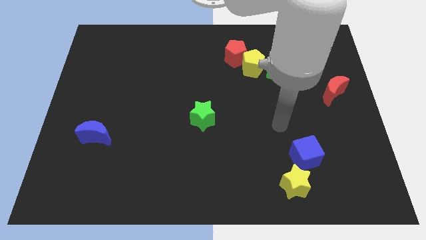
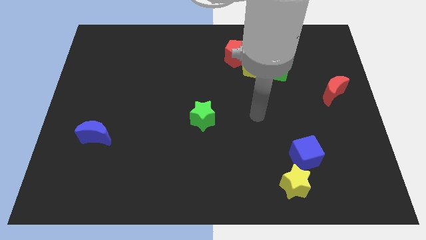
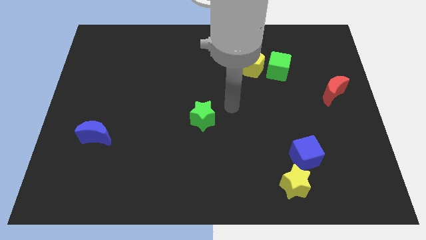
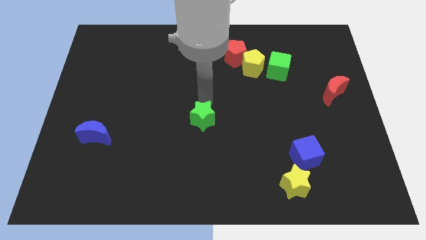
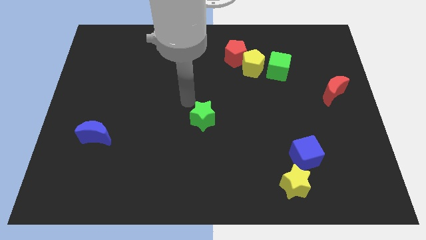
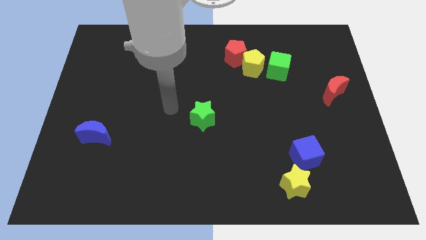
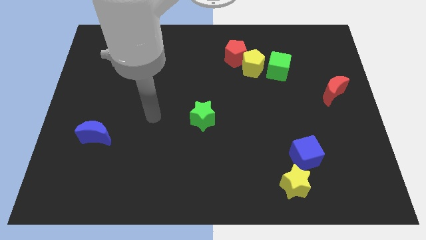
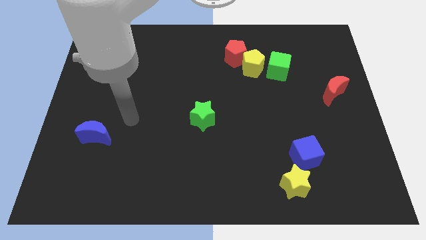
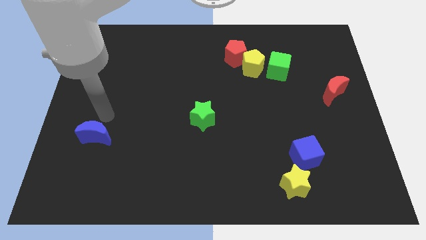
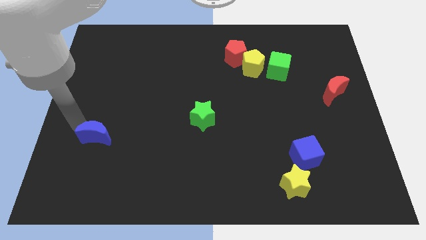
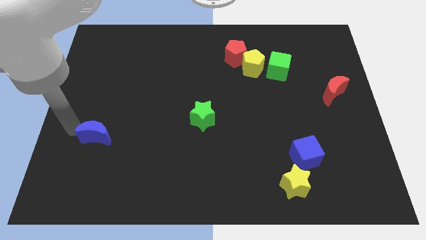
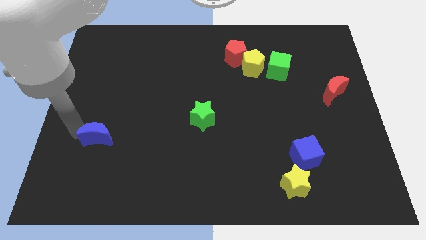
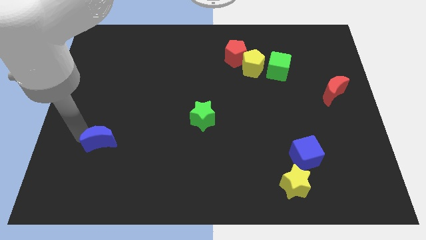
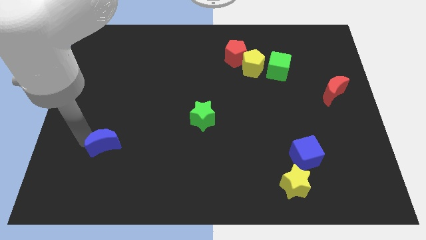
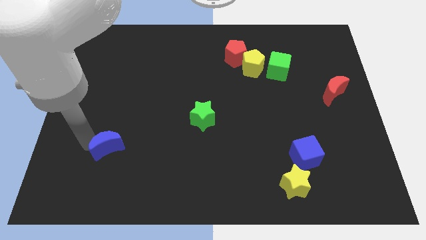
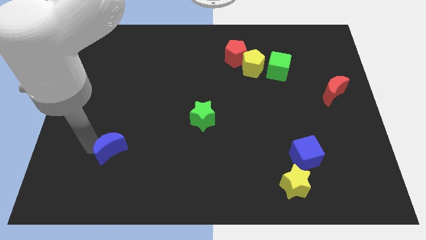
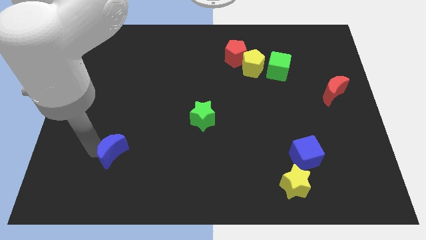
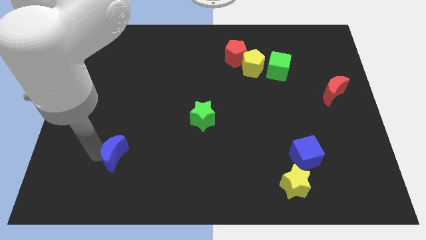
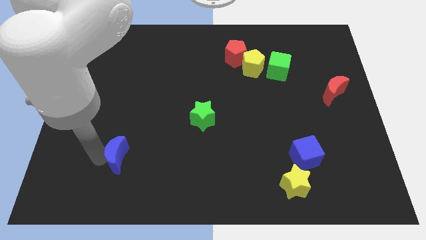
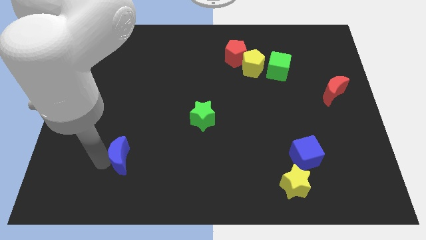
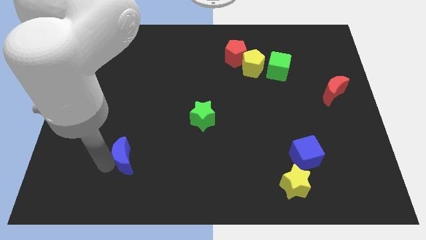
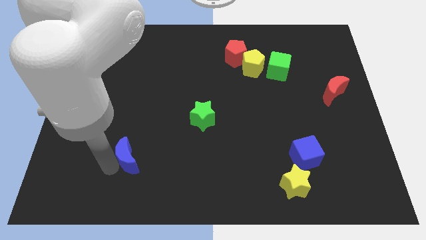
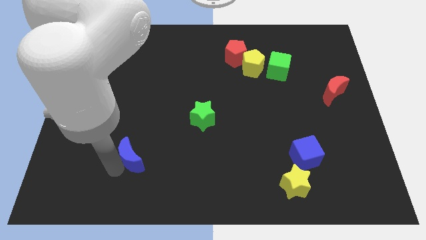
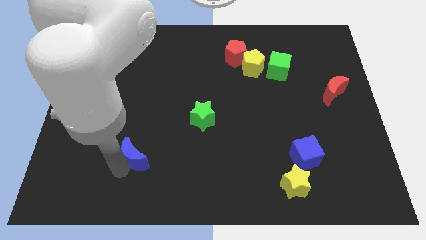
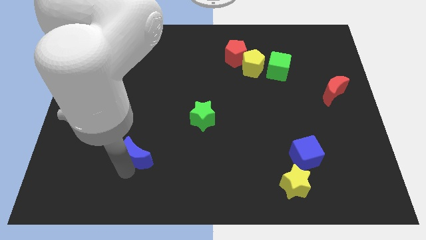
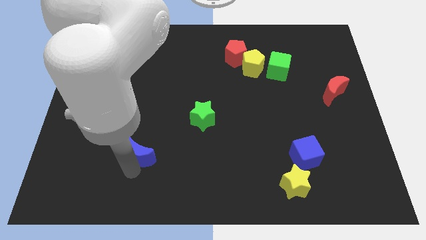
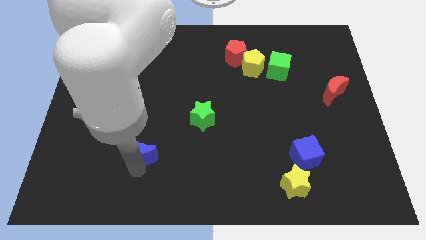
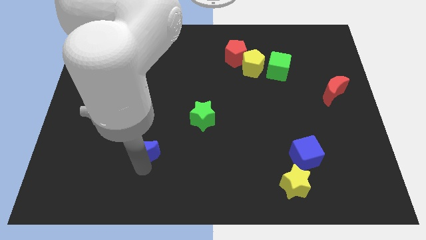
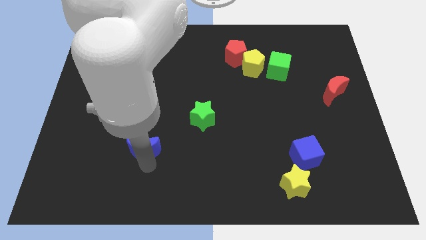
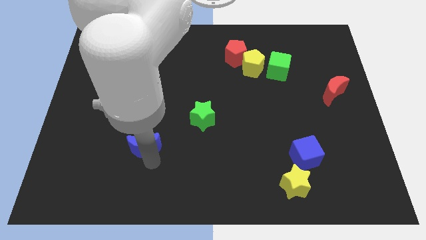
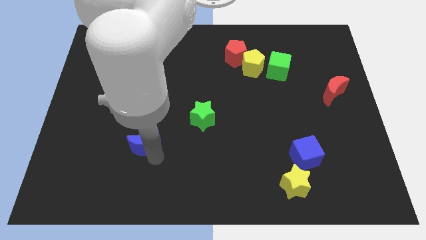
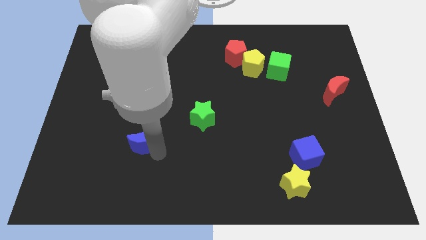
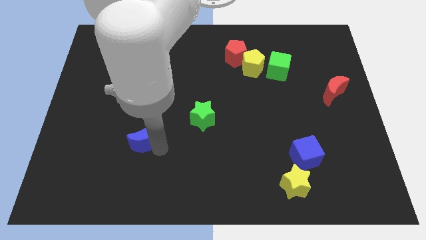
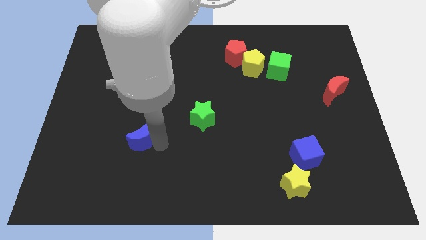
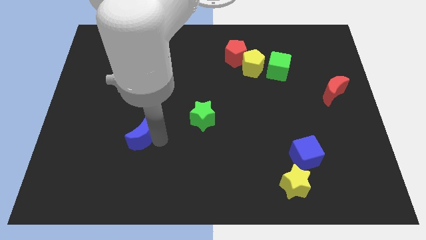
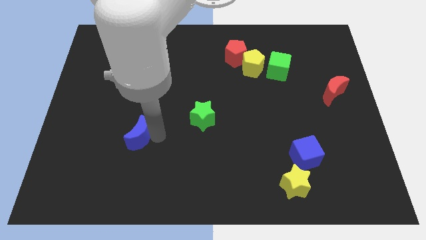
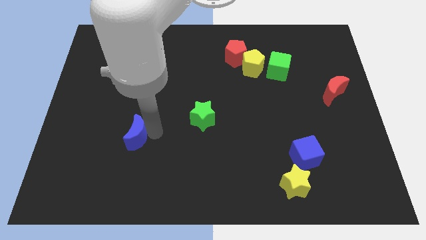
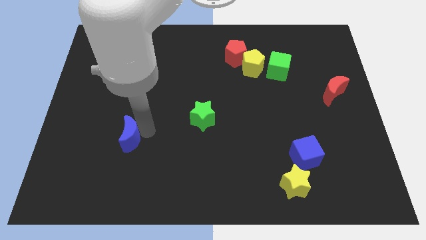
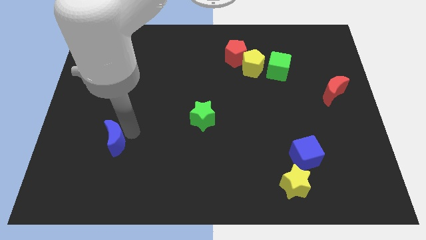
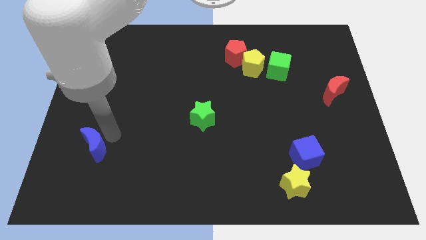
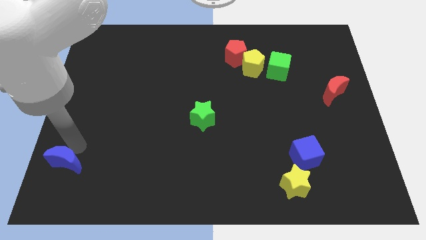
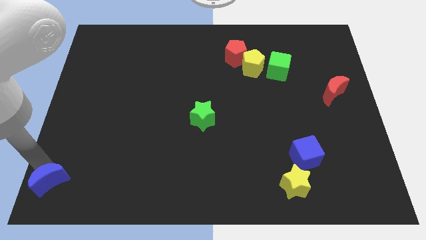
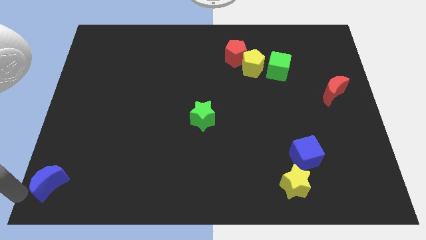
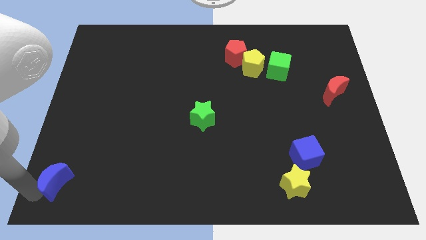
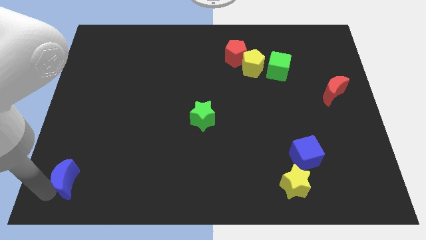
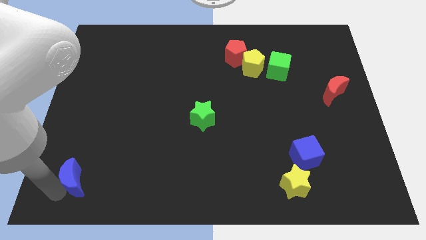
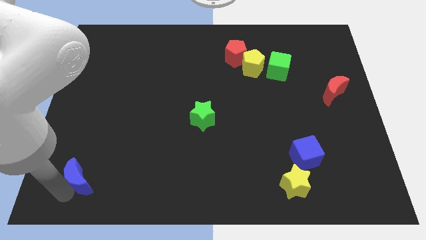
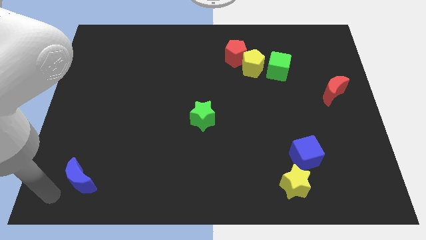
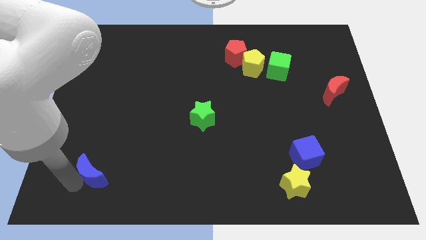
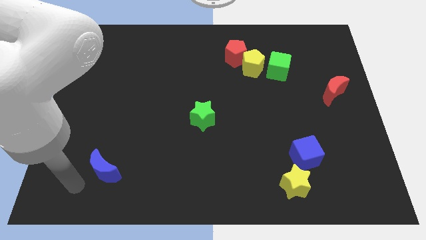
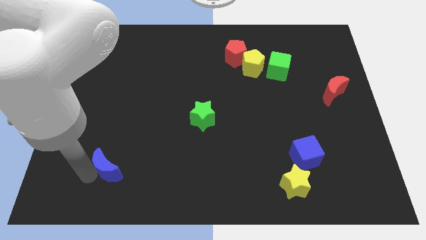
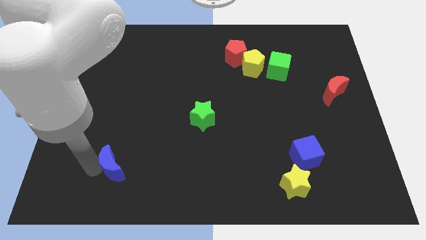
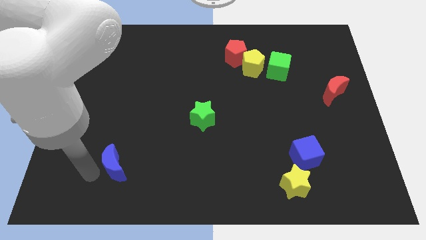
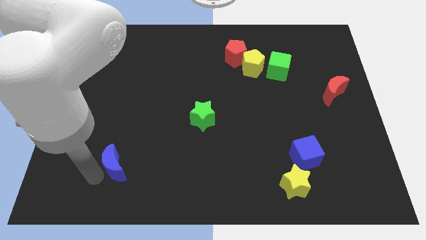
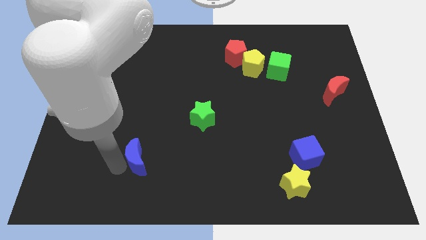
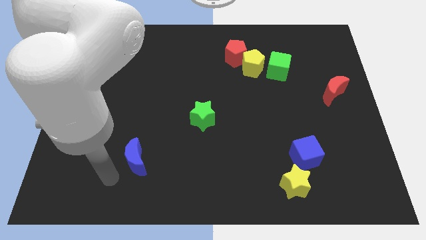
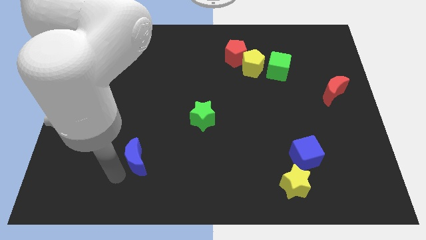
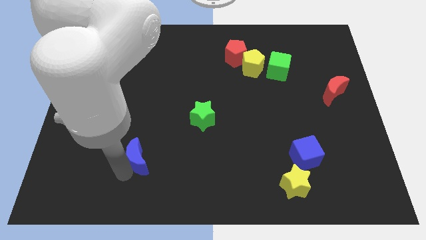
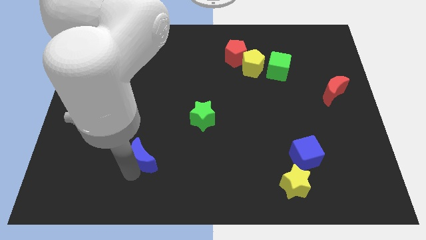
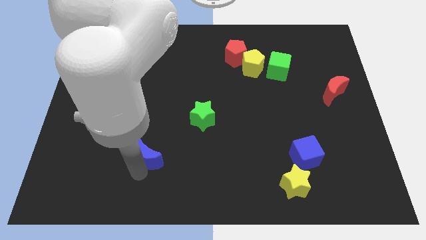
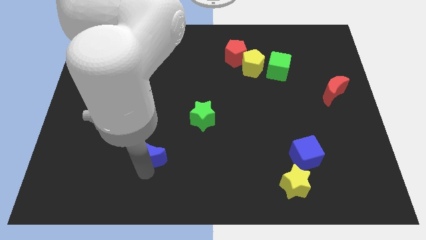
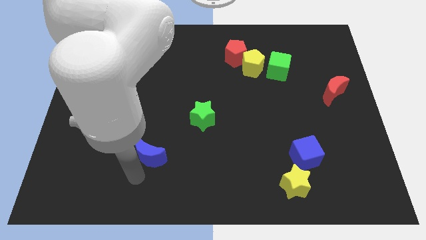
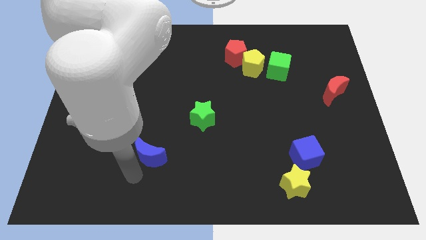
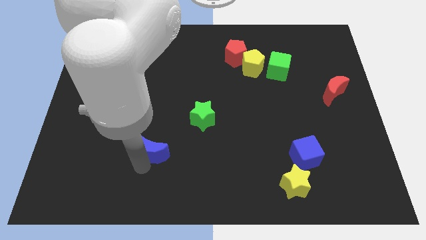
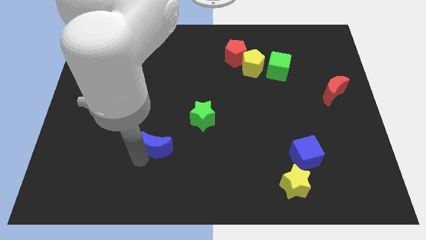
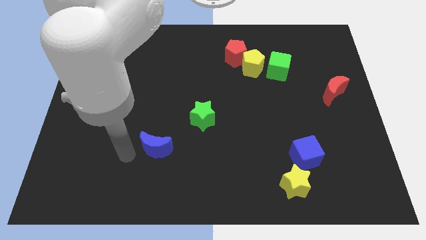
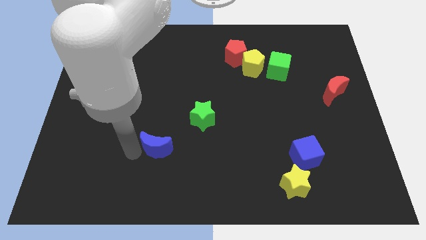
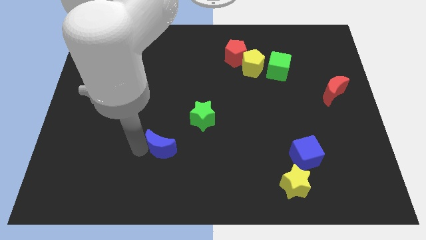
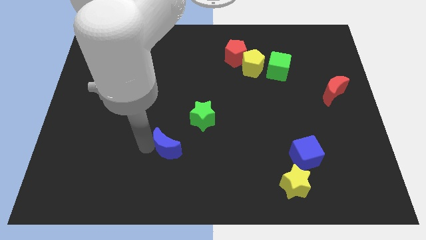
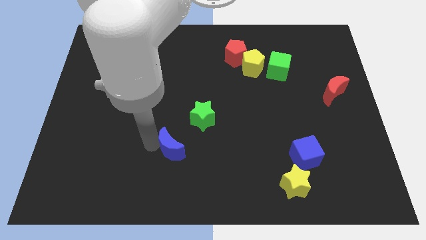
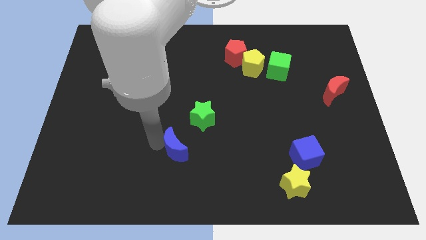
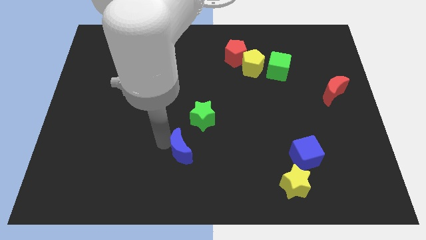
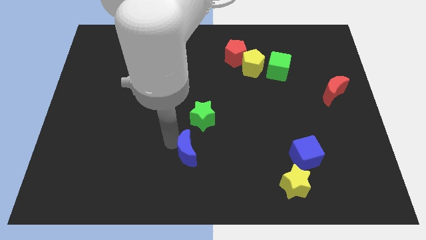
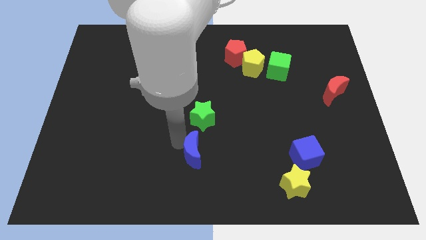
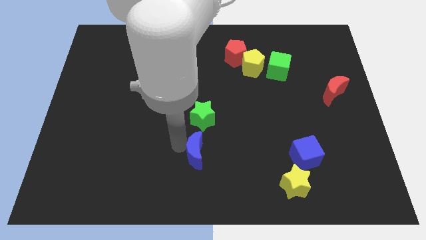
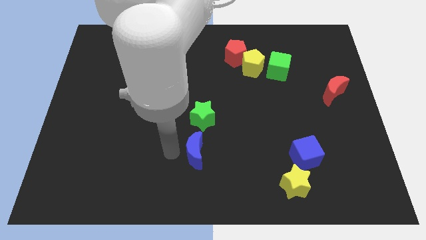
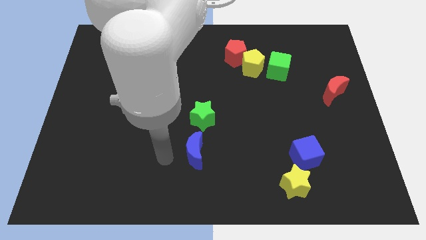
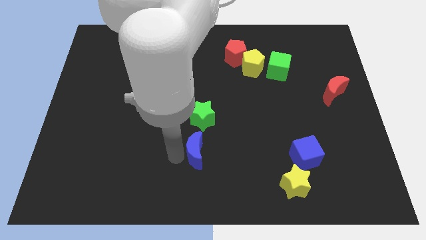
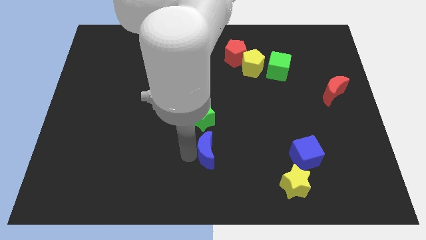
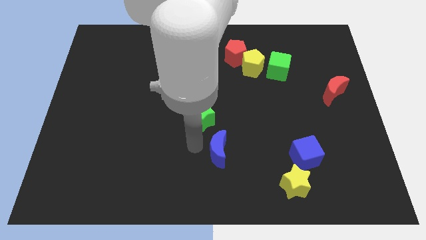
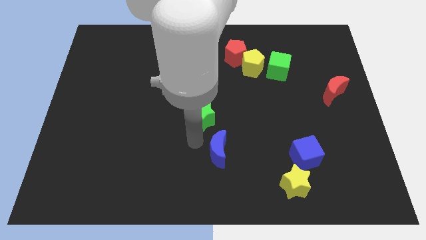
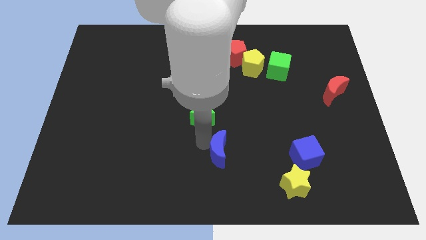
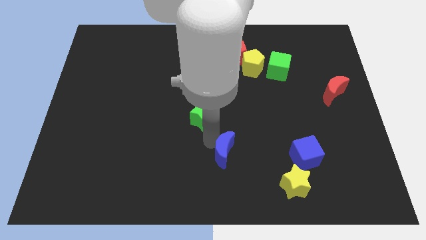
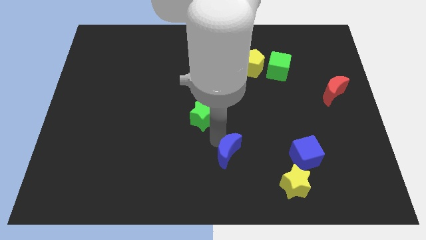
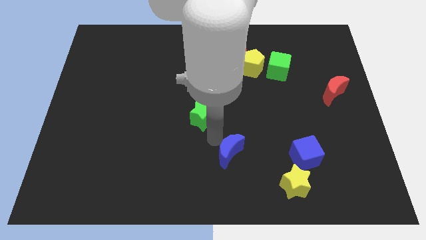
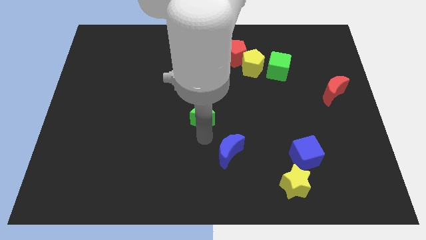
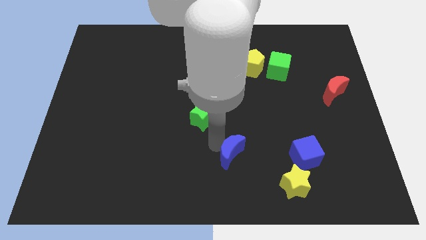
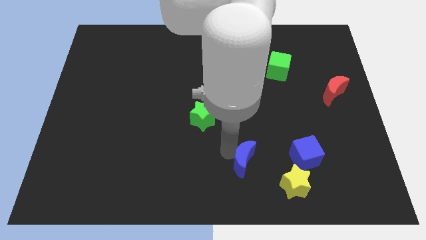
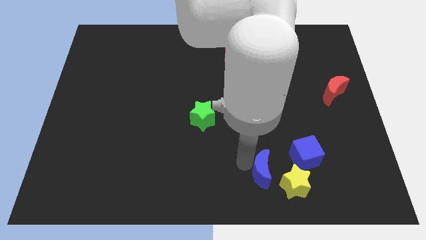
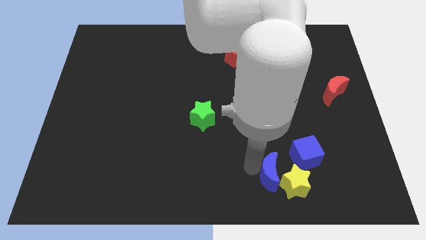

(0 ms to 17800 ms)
move the blue moon towards the yellow star
